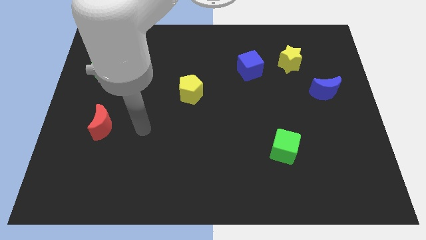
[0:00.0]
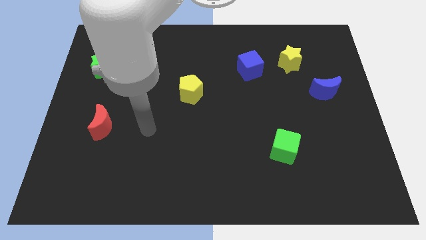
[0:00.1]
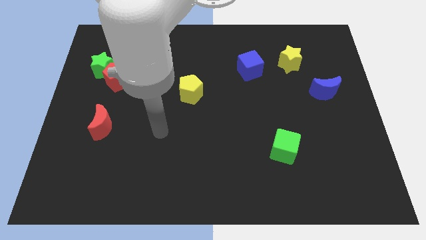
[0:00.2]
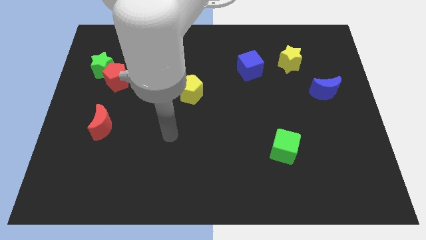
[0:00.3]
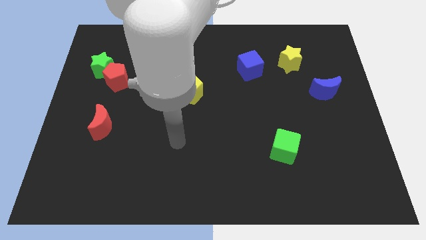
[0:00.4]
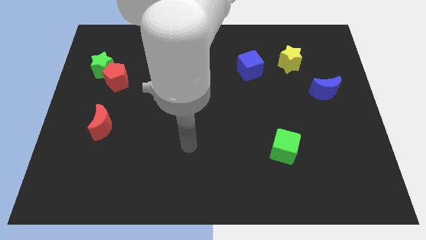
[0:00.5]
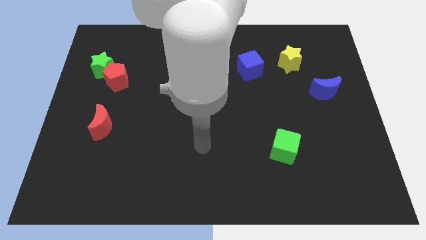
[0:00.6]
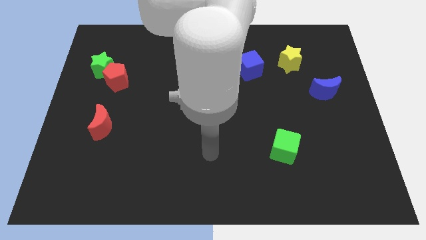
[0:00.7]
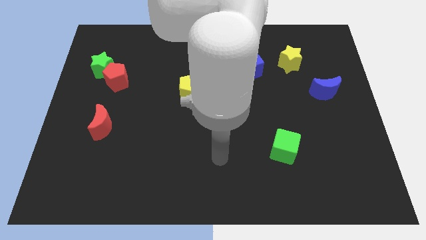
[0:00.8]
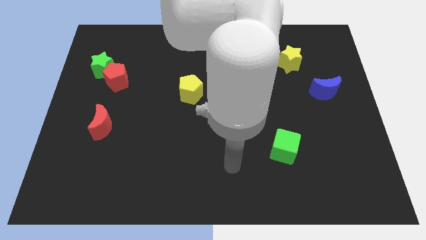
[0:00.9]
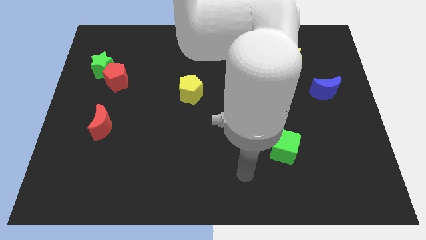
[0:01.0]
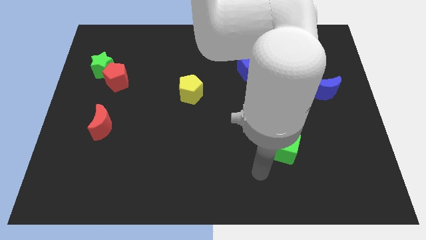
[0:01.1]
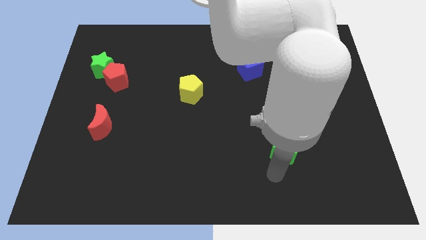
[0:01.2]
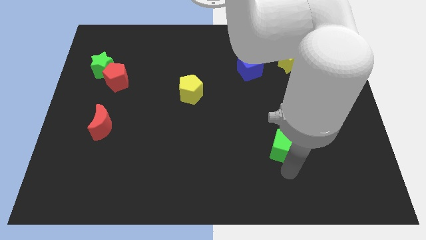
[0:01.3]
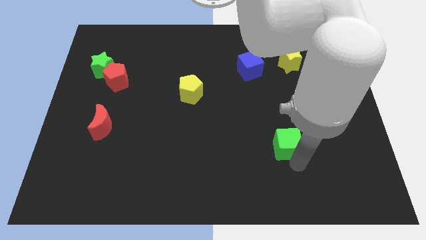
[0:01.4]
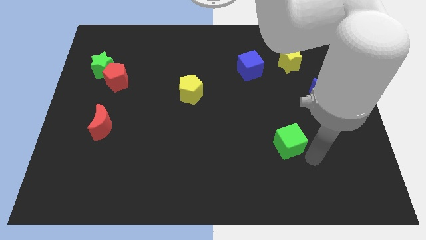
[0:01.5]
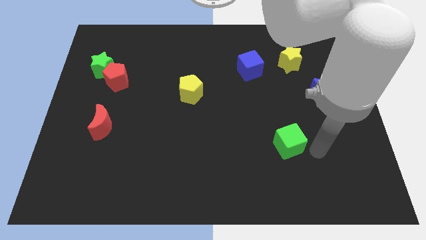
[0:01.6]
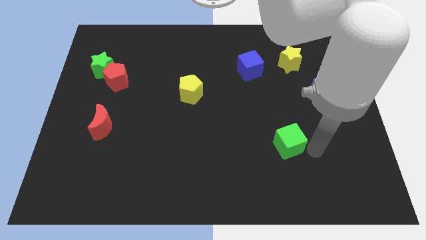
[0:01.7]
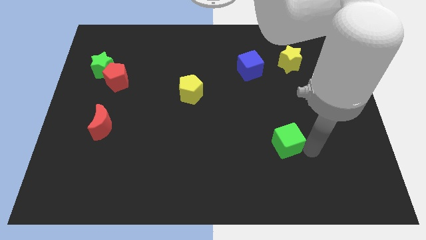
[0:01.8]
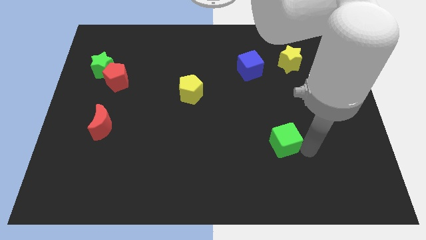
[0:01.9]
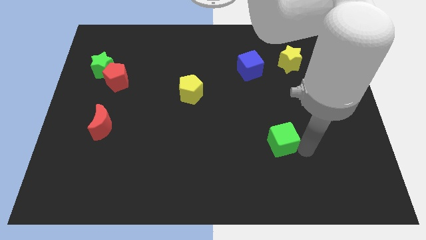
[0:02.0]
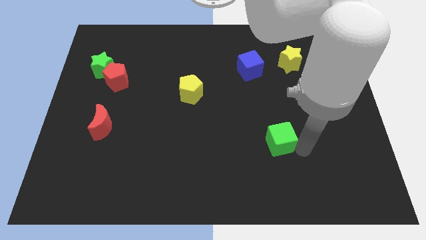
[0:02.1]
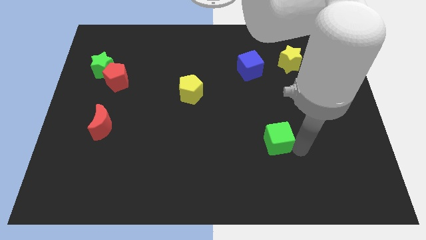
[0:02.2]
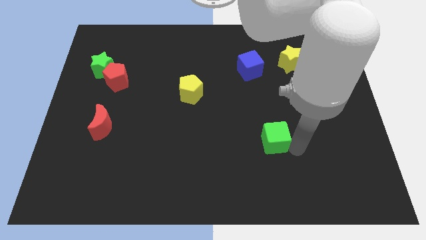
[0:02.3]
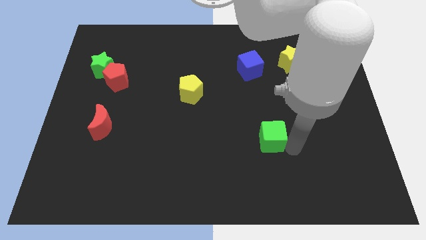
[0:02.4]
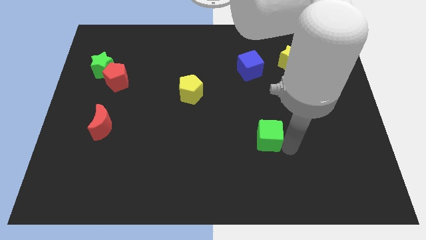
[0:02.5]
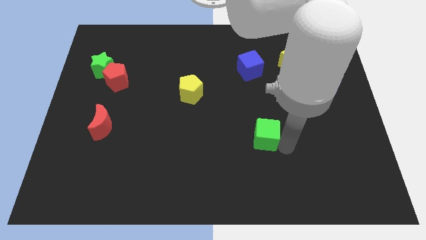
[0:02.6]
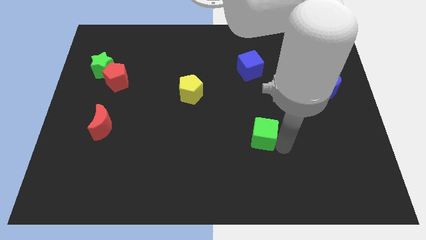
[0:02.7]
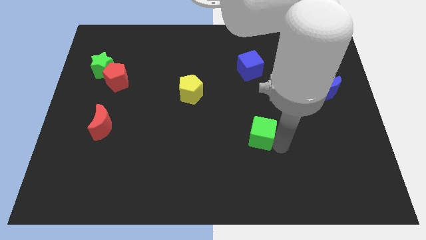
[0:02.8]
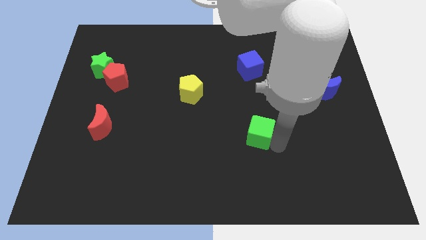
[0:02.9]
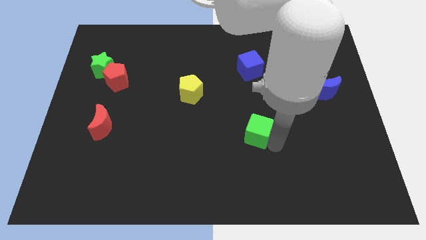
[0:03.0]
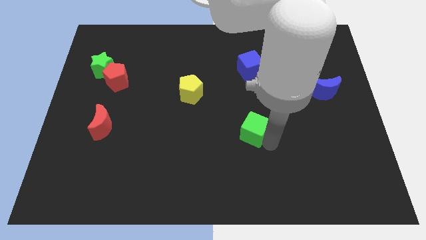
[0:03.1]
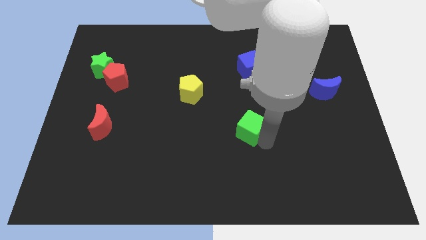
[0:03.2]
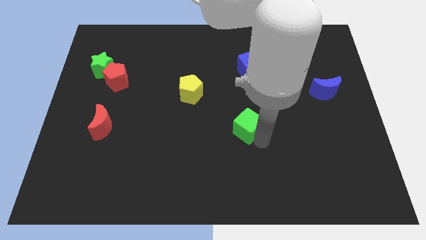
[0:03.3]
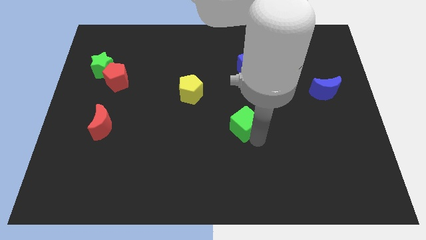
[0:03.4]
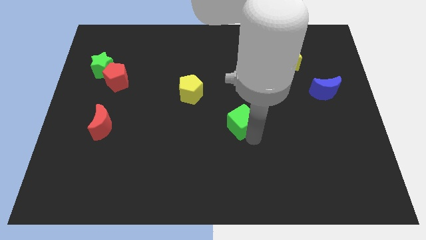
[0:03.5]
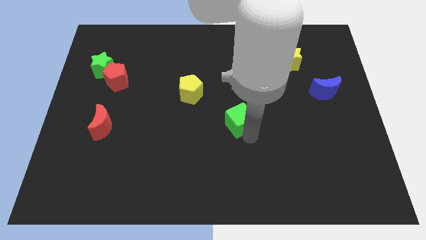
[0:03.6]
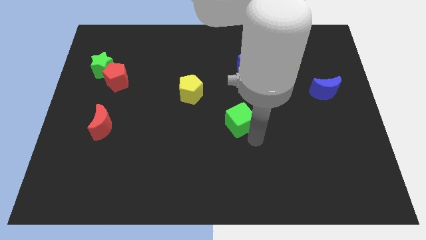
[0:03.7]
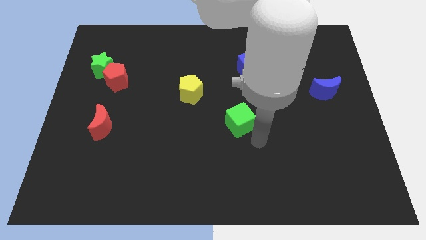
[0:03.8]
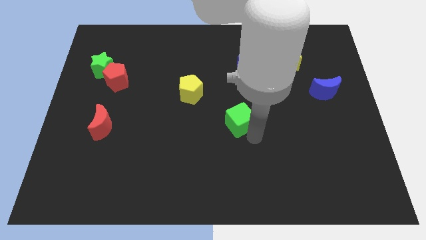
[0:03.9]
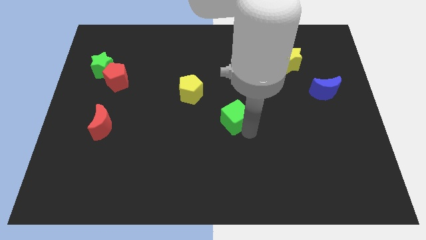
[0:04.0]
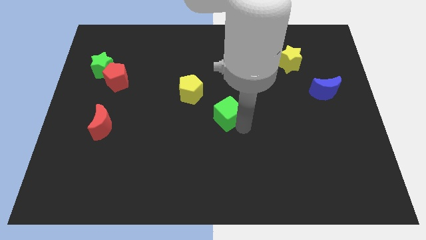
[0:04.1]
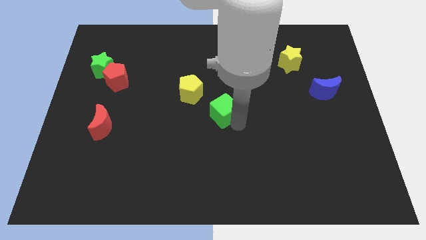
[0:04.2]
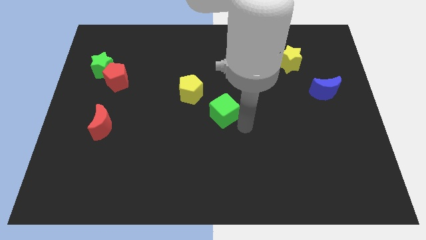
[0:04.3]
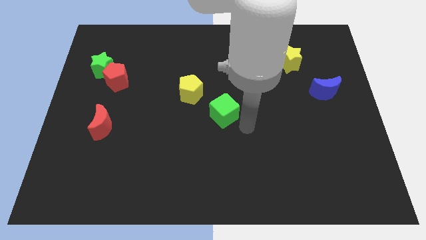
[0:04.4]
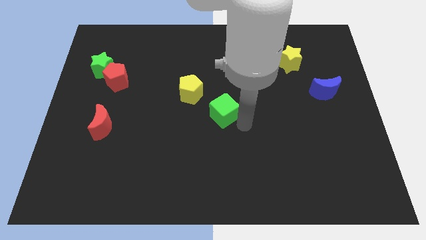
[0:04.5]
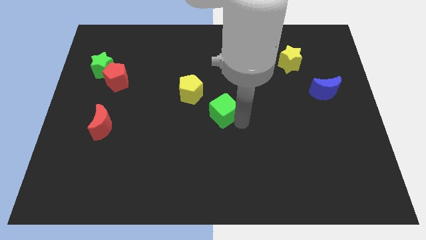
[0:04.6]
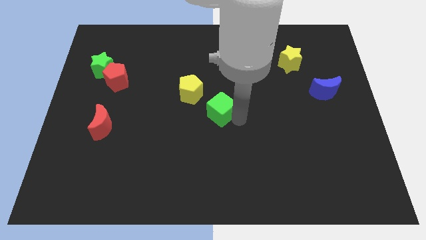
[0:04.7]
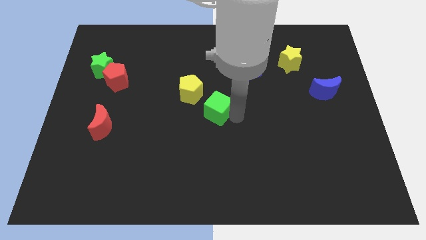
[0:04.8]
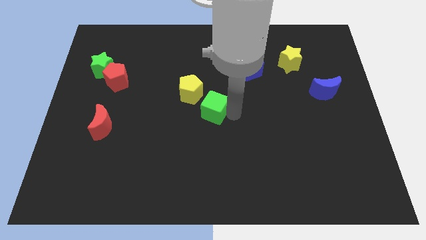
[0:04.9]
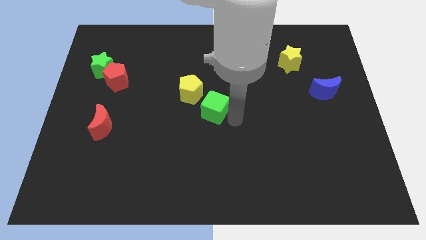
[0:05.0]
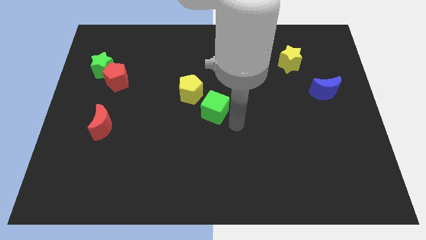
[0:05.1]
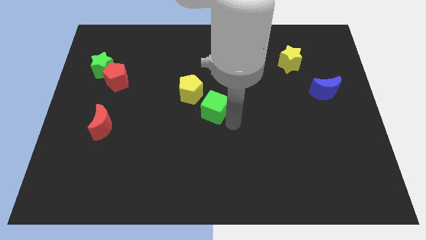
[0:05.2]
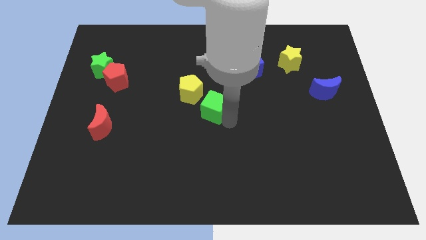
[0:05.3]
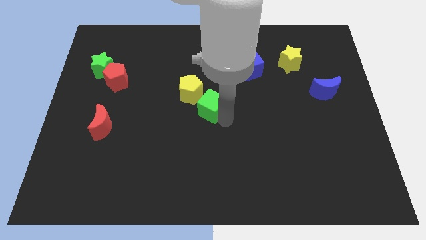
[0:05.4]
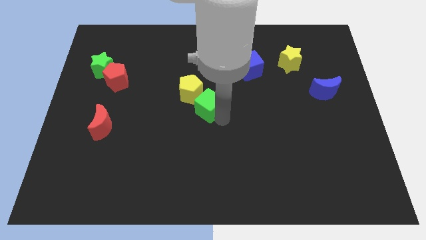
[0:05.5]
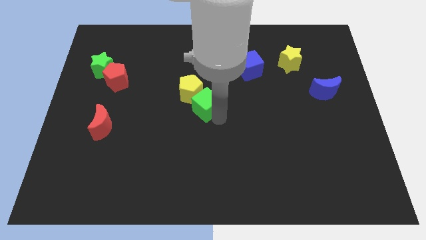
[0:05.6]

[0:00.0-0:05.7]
push the green cube to the yellow pentagon

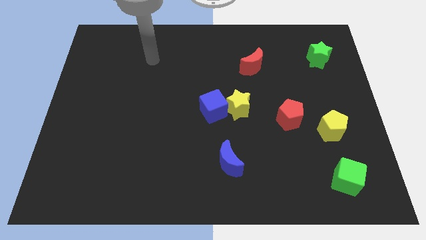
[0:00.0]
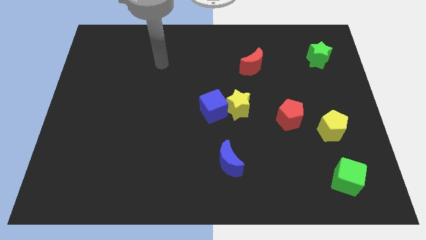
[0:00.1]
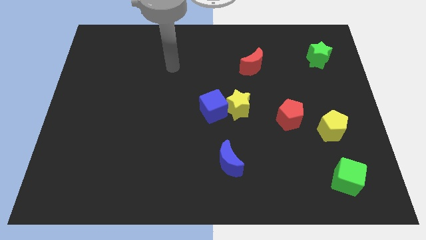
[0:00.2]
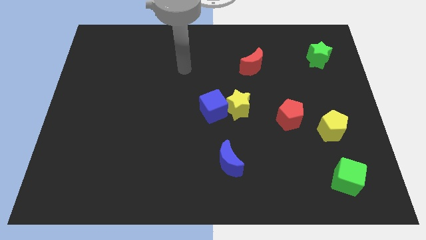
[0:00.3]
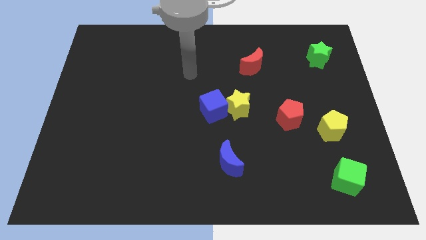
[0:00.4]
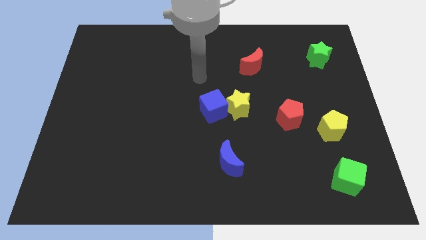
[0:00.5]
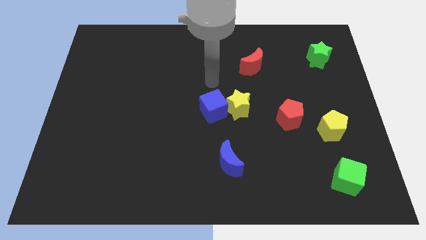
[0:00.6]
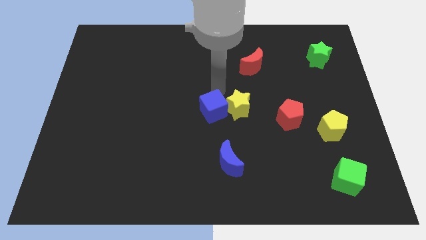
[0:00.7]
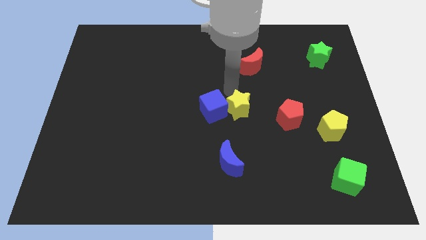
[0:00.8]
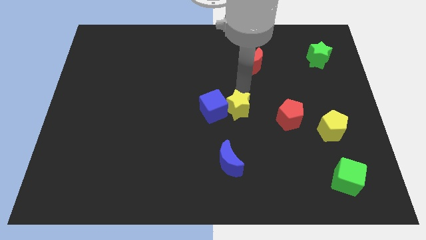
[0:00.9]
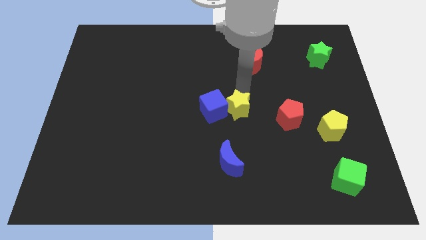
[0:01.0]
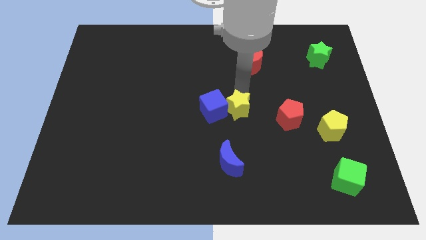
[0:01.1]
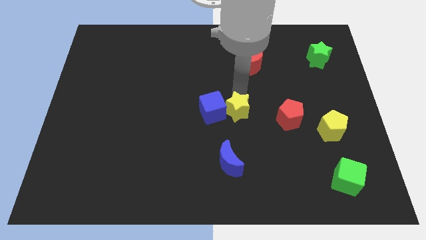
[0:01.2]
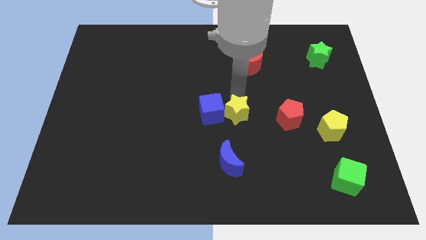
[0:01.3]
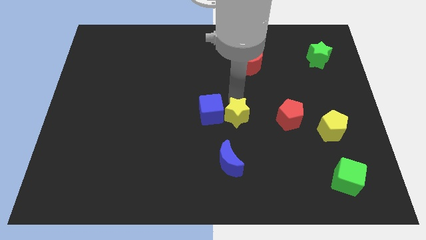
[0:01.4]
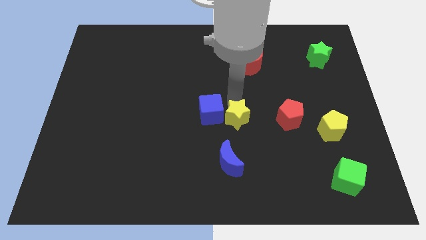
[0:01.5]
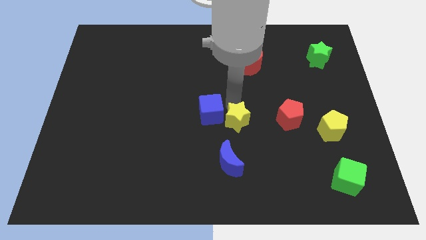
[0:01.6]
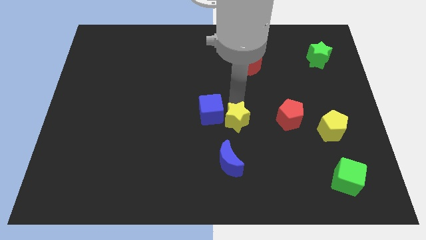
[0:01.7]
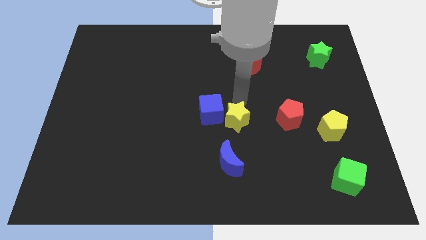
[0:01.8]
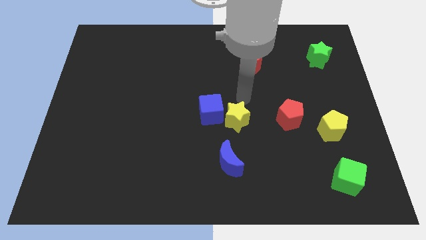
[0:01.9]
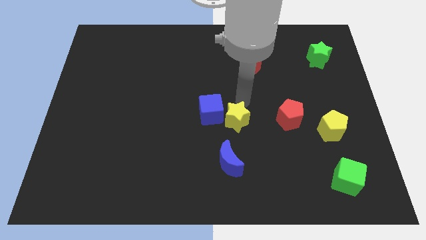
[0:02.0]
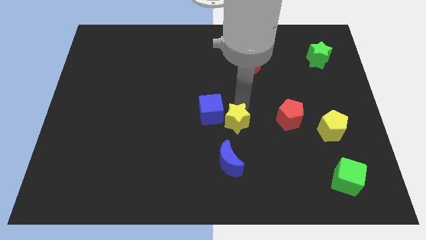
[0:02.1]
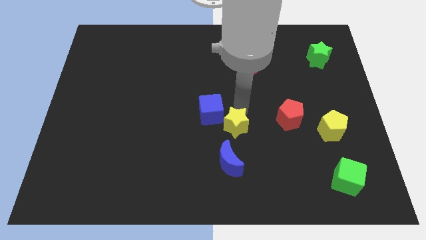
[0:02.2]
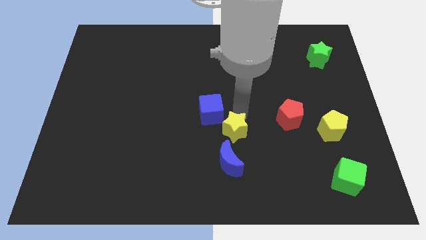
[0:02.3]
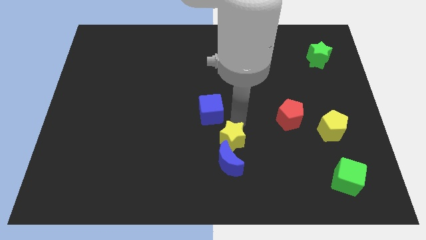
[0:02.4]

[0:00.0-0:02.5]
put the yellow star towards the blue moon
